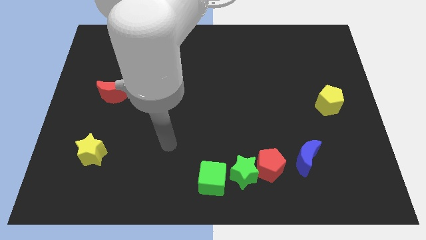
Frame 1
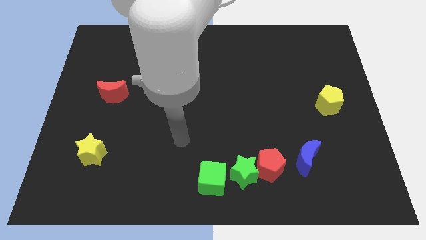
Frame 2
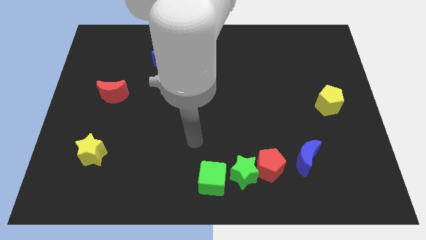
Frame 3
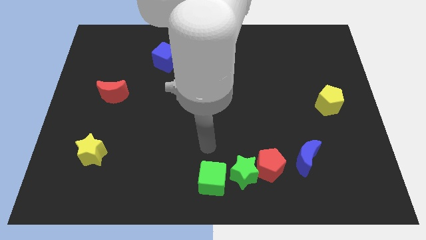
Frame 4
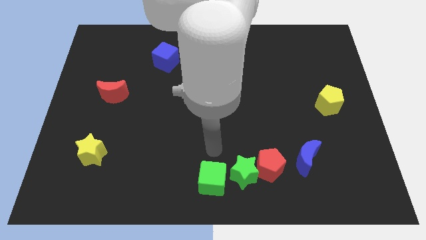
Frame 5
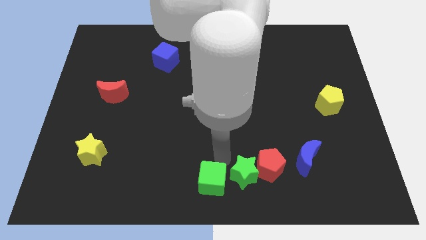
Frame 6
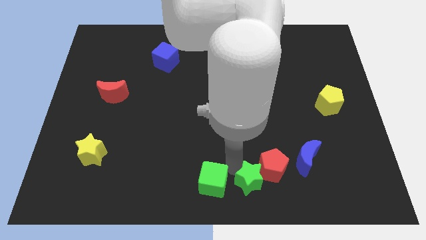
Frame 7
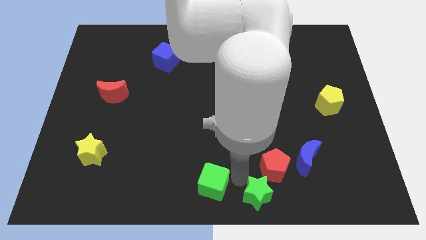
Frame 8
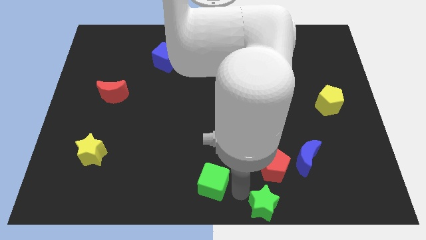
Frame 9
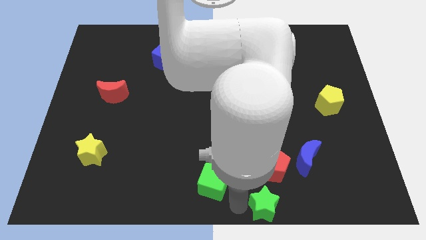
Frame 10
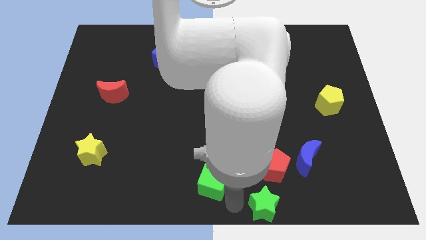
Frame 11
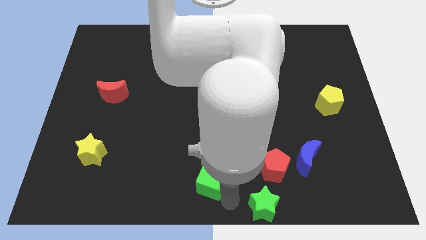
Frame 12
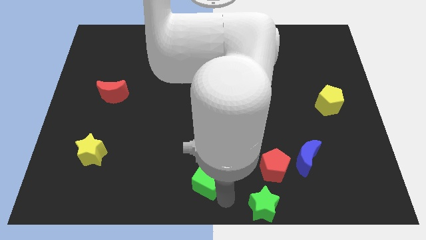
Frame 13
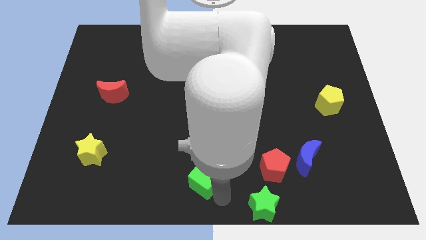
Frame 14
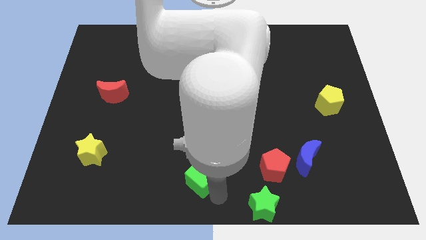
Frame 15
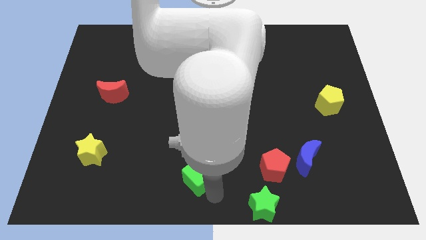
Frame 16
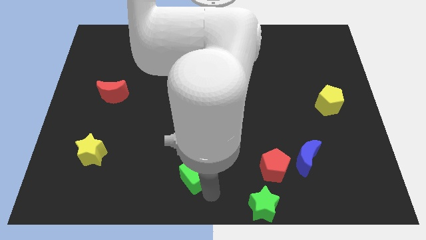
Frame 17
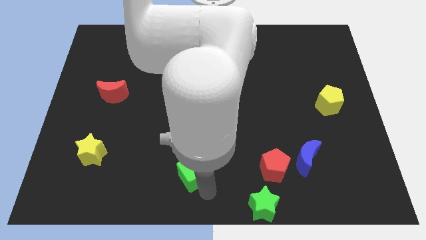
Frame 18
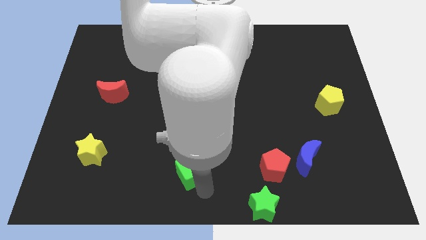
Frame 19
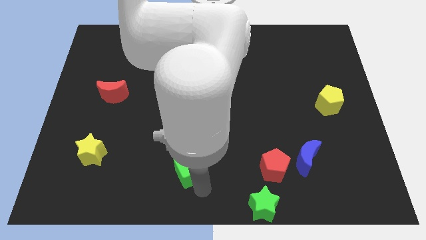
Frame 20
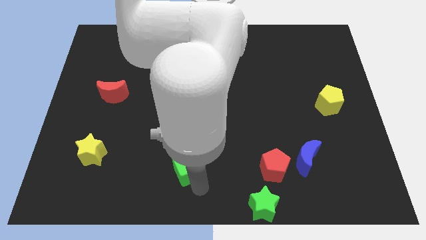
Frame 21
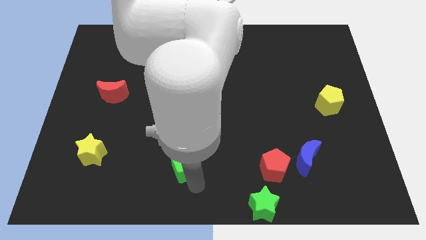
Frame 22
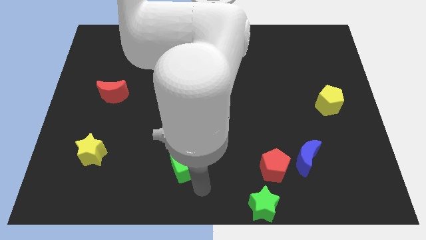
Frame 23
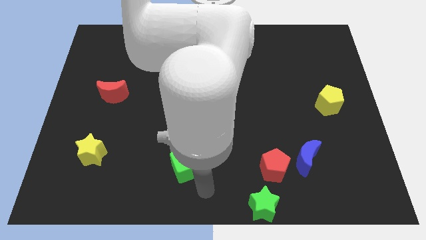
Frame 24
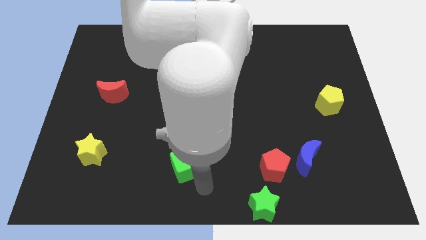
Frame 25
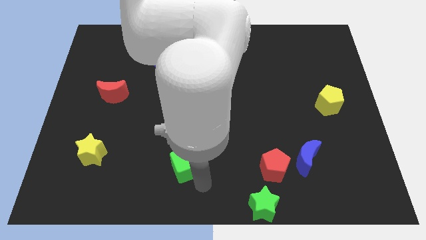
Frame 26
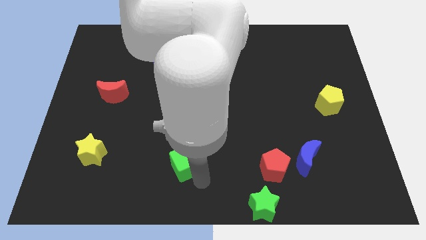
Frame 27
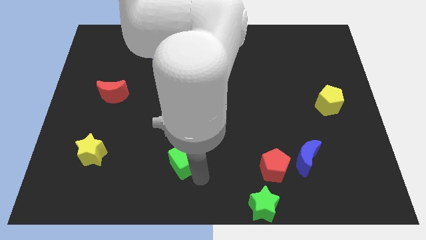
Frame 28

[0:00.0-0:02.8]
slide the green cube up and then left a little bit

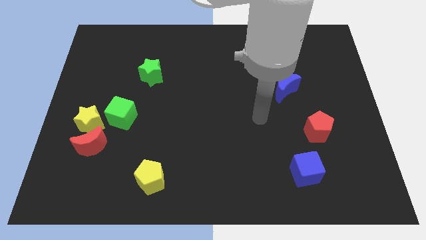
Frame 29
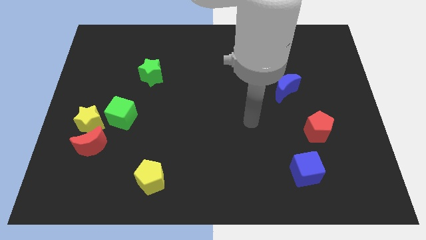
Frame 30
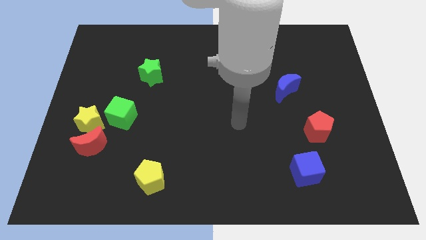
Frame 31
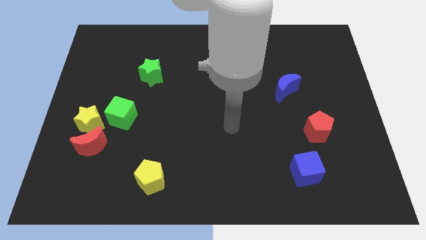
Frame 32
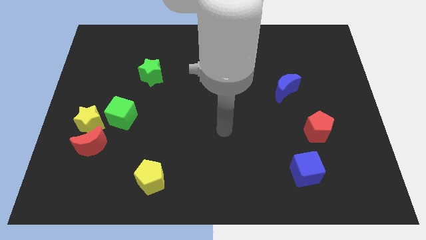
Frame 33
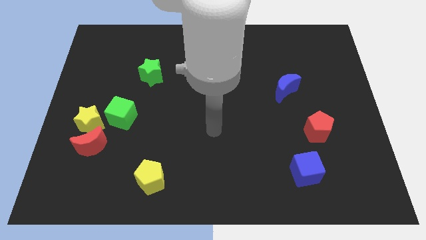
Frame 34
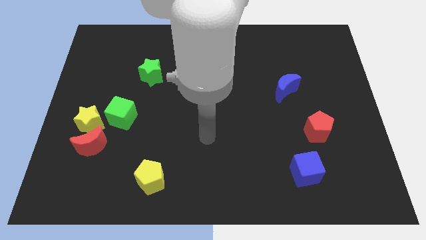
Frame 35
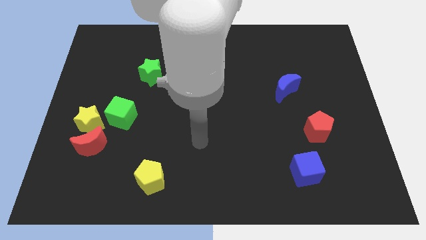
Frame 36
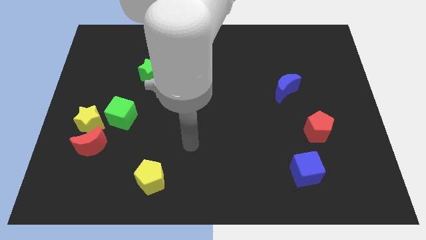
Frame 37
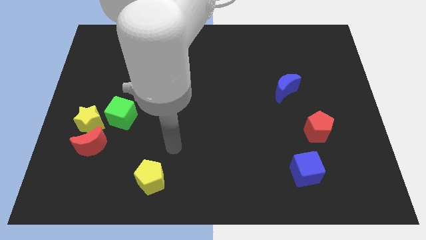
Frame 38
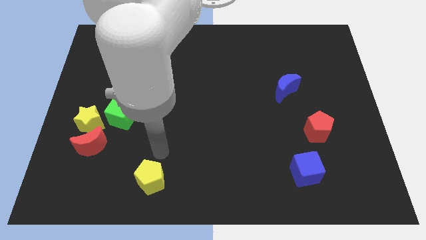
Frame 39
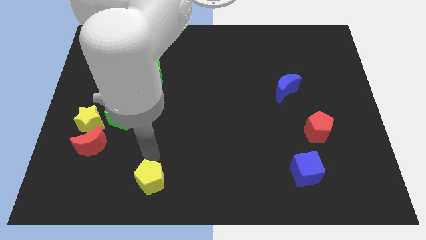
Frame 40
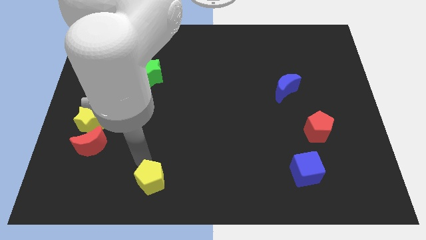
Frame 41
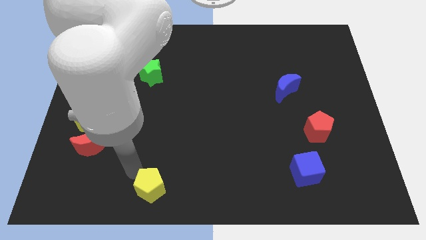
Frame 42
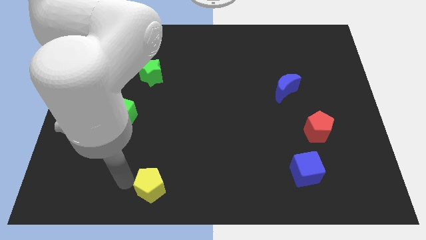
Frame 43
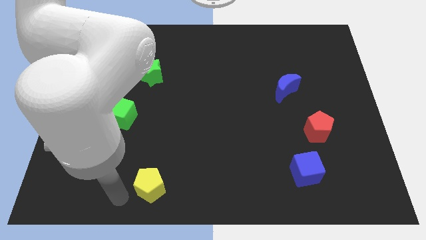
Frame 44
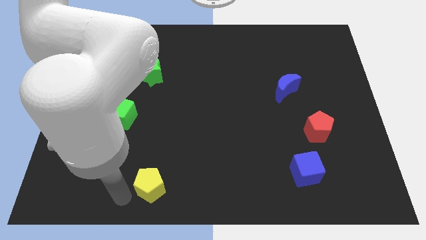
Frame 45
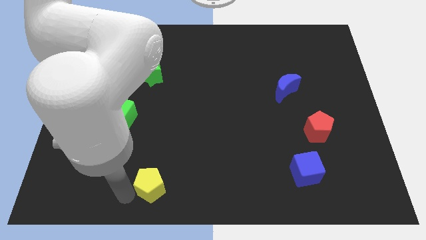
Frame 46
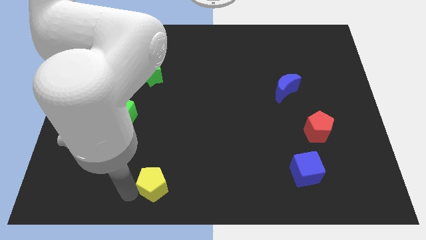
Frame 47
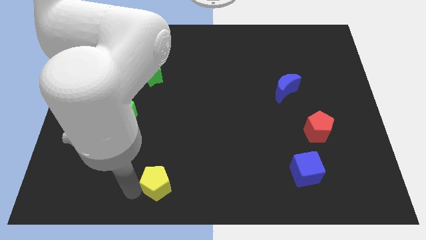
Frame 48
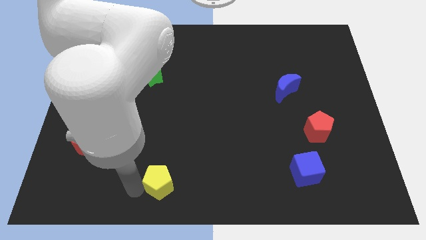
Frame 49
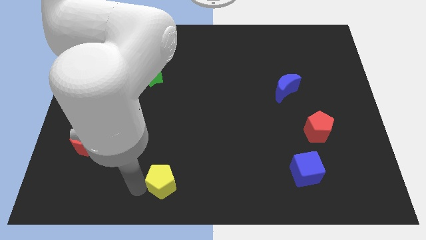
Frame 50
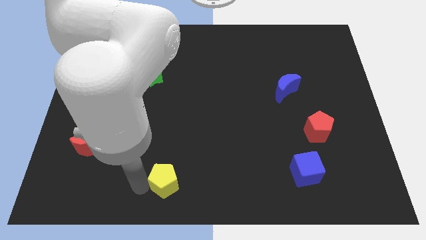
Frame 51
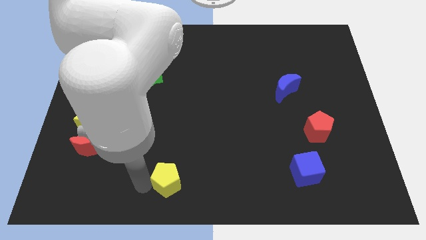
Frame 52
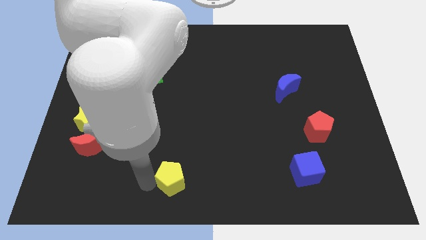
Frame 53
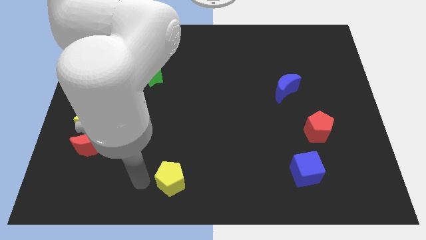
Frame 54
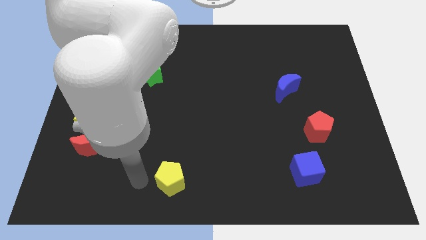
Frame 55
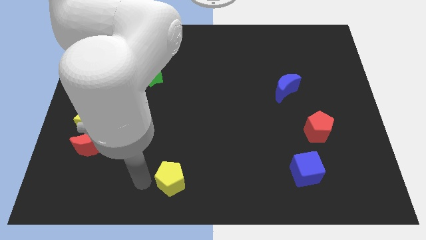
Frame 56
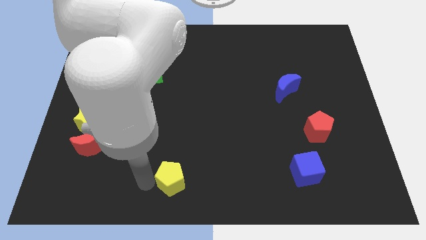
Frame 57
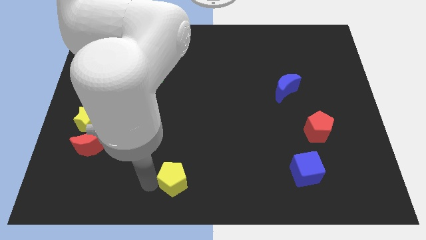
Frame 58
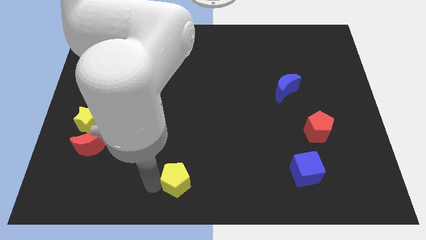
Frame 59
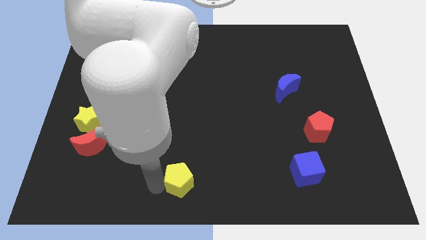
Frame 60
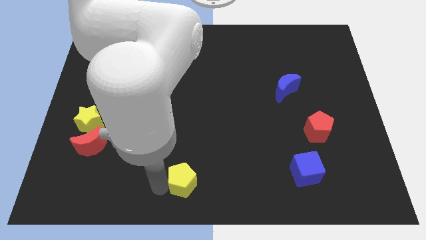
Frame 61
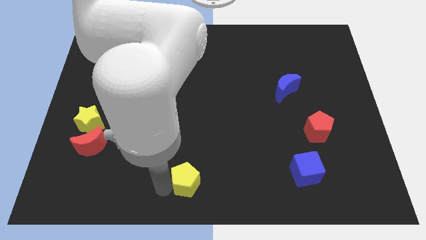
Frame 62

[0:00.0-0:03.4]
slide the yellow pentagon a bit right

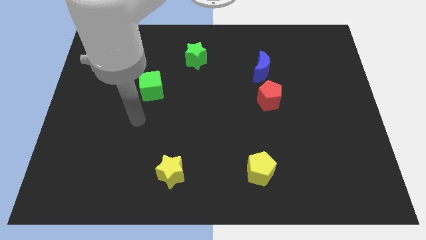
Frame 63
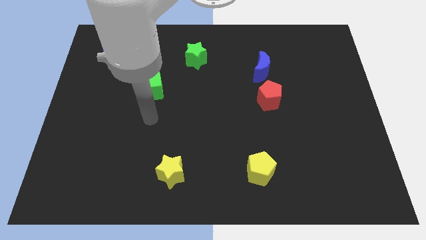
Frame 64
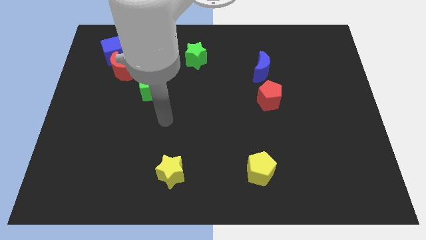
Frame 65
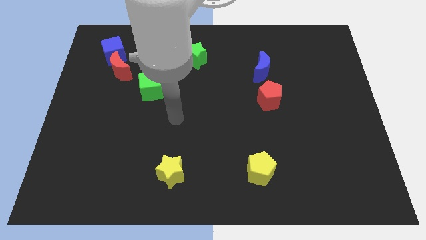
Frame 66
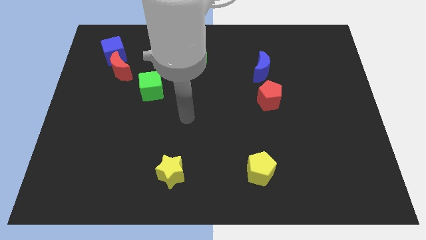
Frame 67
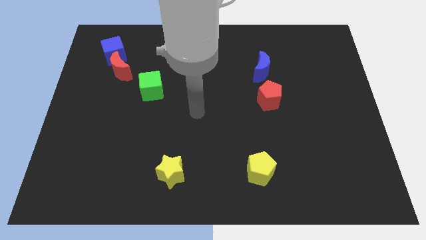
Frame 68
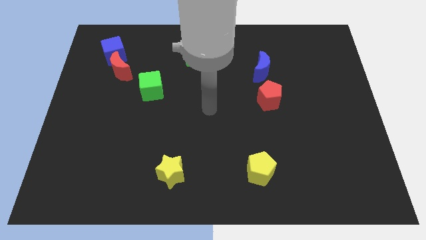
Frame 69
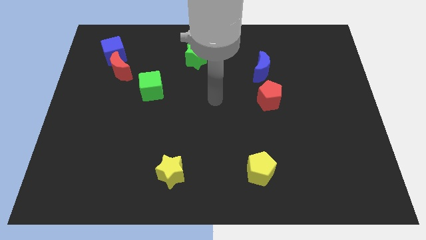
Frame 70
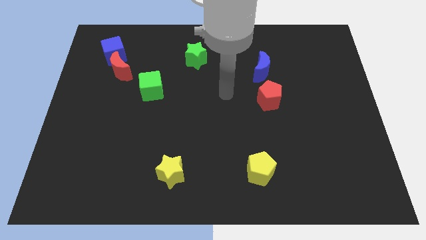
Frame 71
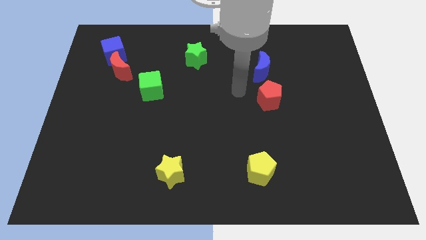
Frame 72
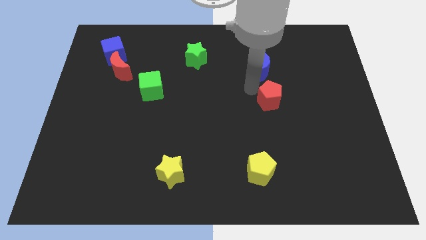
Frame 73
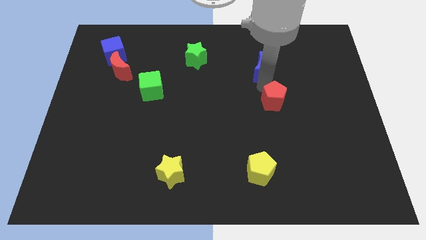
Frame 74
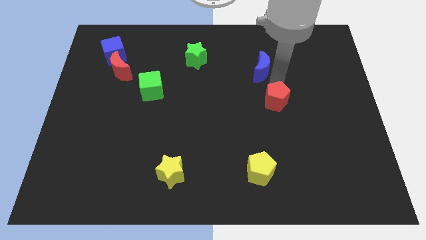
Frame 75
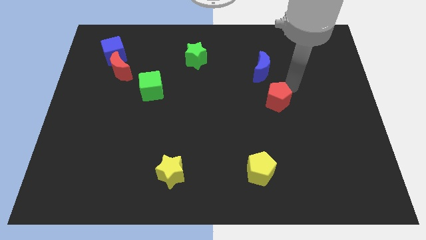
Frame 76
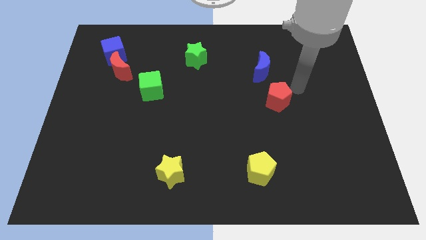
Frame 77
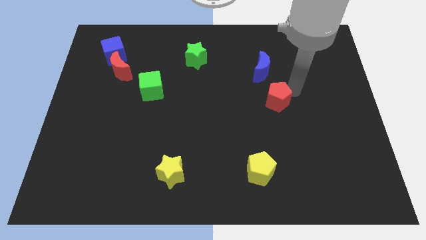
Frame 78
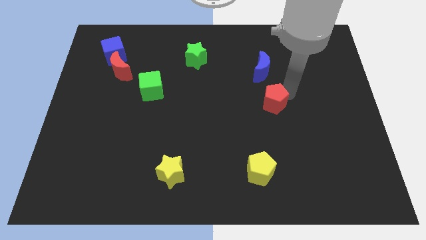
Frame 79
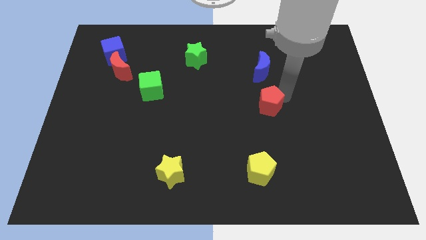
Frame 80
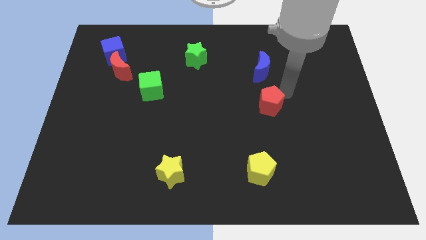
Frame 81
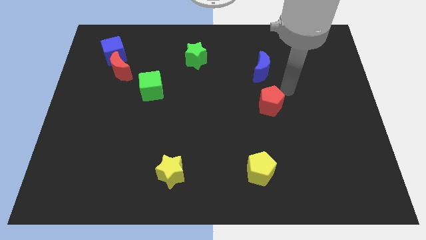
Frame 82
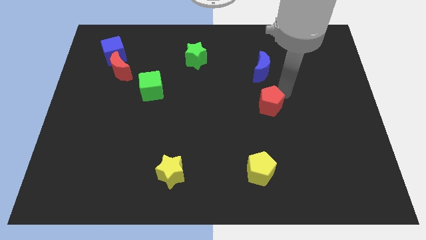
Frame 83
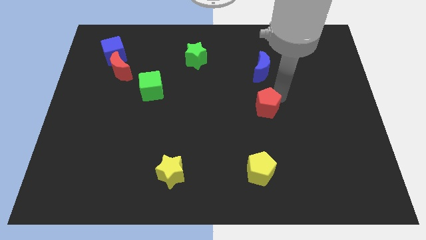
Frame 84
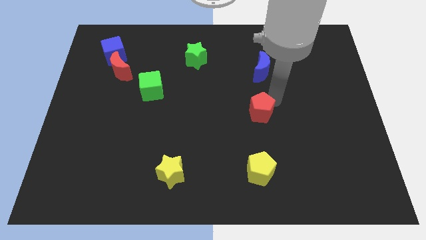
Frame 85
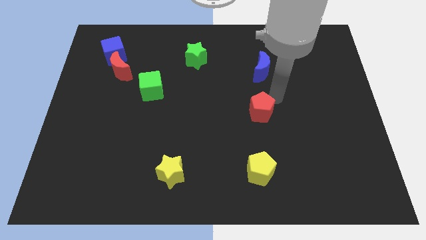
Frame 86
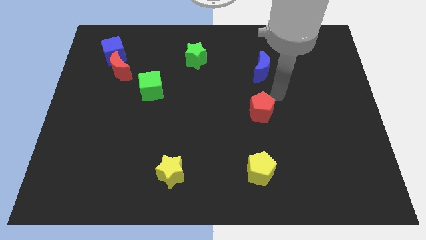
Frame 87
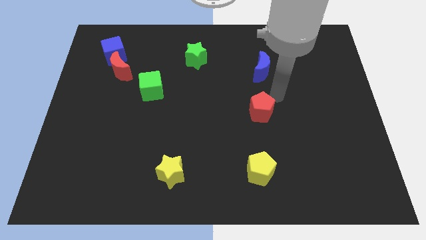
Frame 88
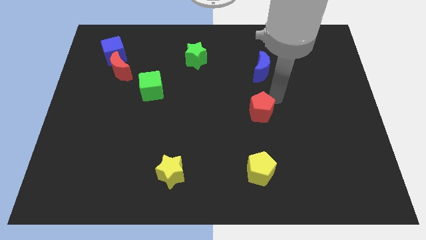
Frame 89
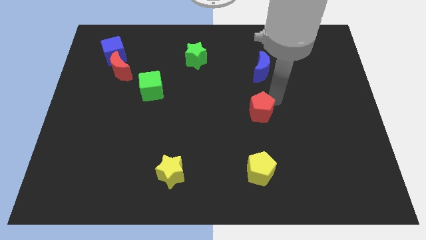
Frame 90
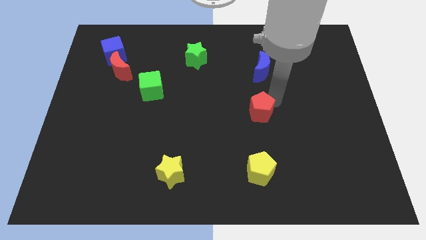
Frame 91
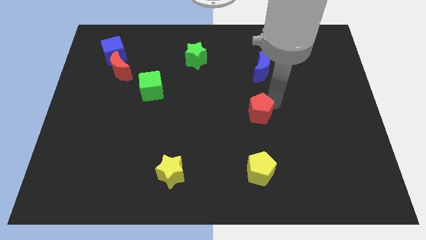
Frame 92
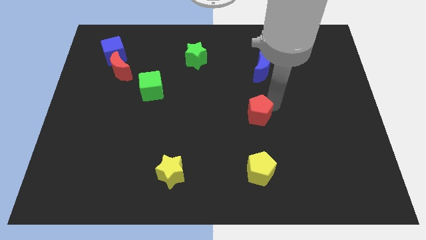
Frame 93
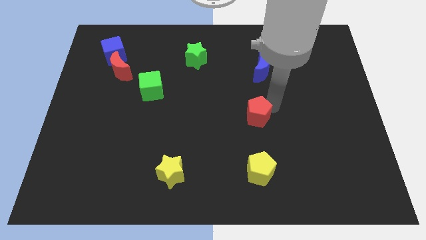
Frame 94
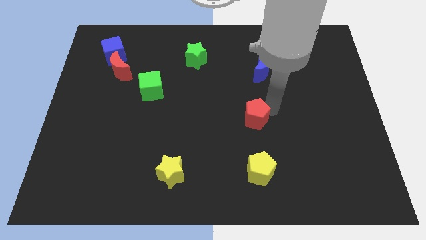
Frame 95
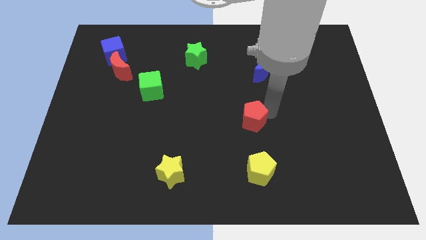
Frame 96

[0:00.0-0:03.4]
slightly move the red pentagon down and to the left diagonally
